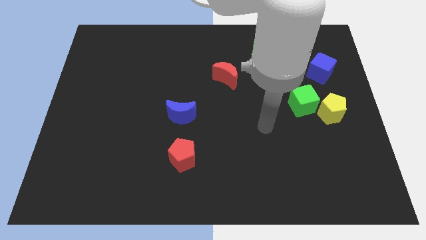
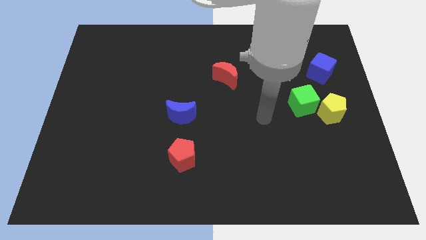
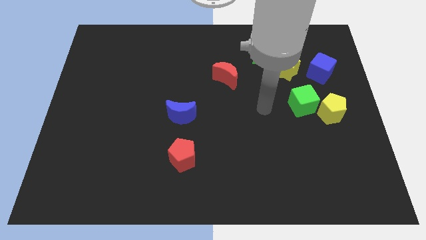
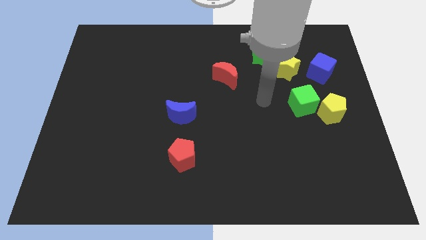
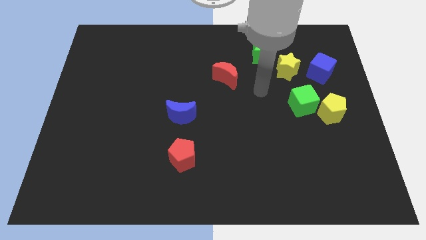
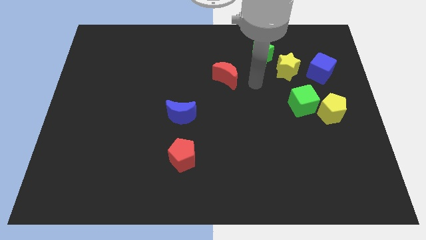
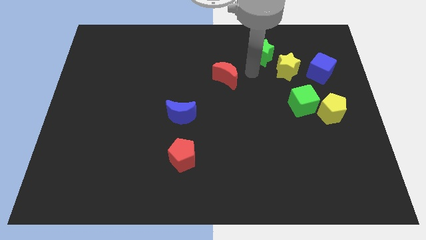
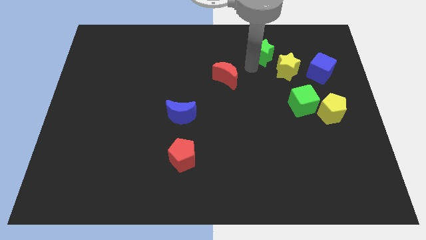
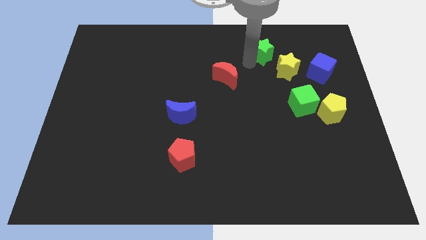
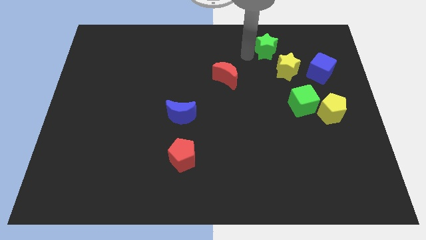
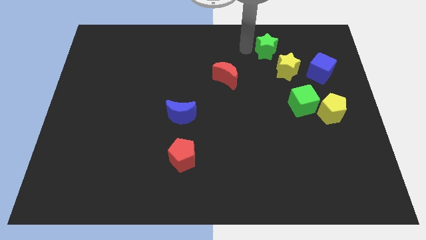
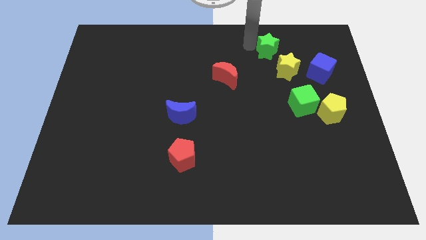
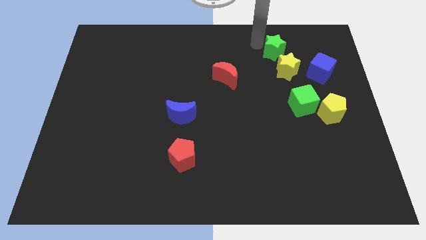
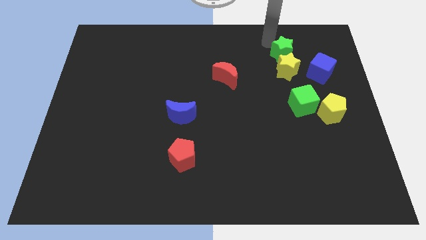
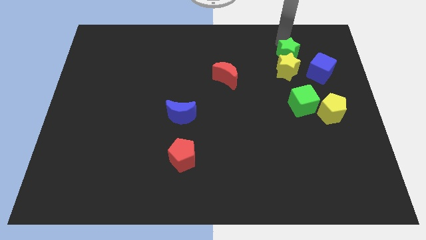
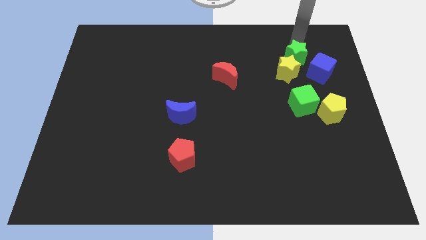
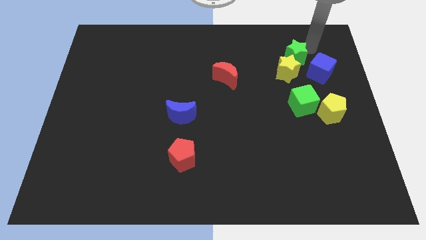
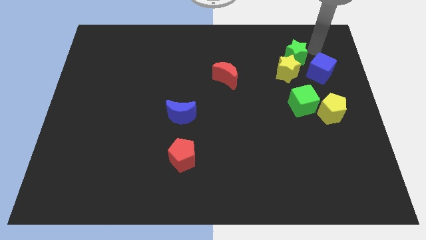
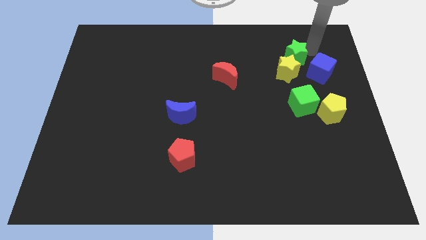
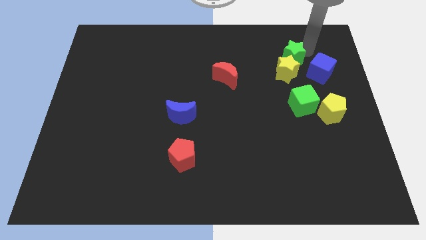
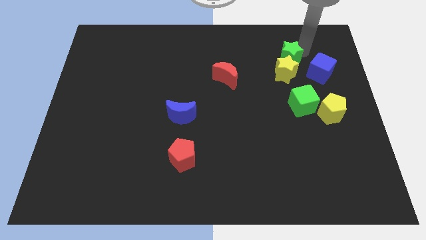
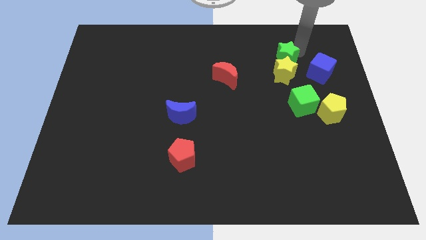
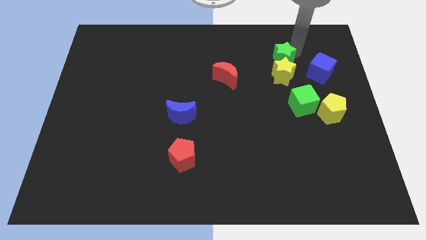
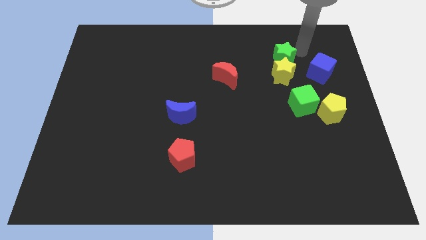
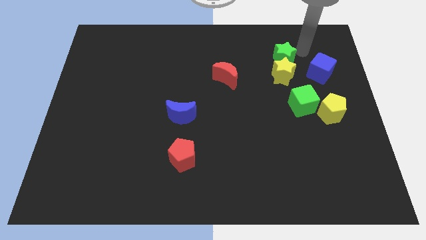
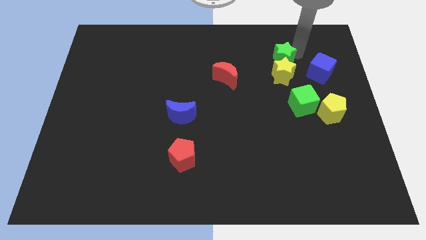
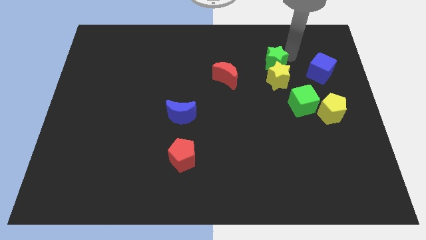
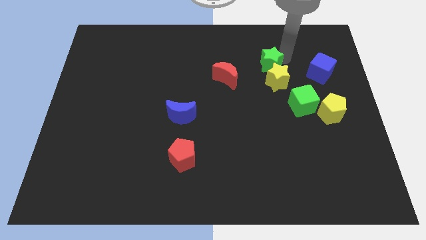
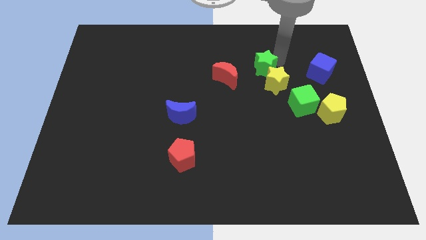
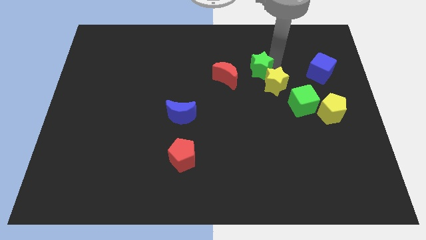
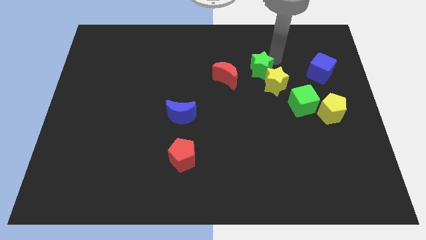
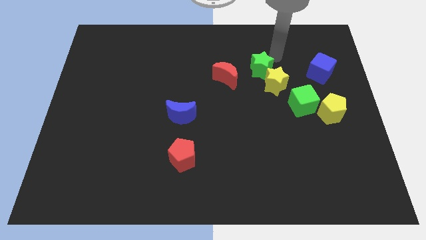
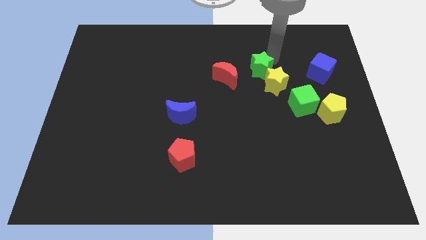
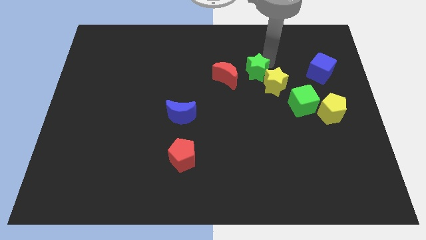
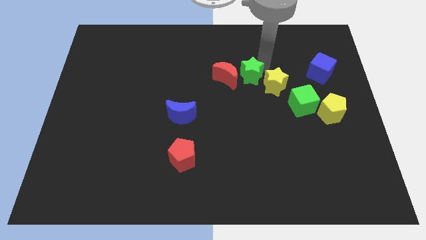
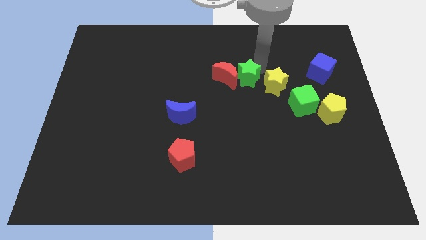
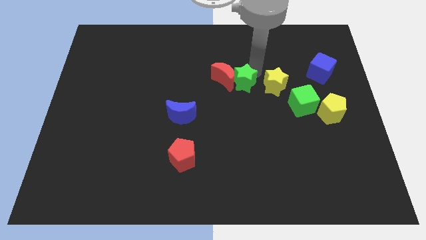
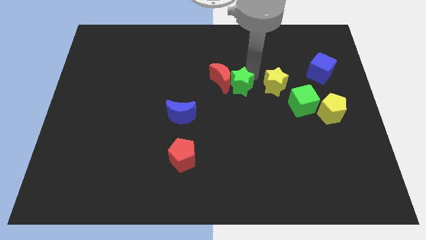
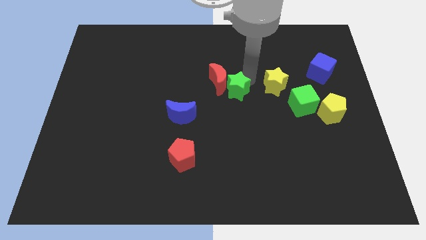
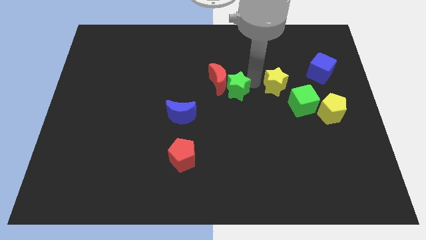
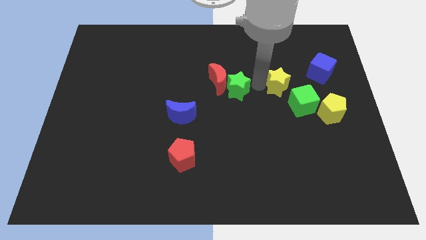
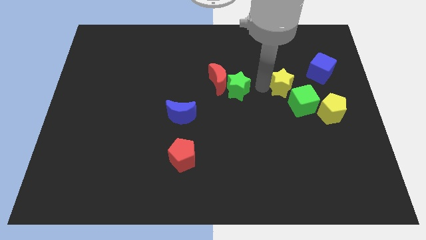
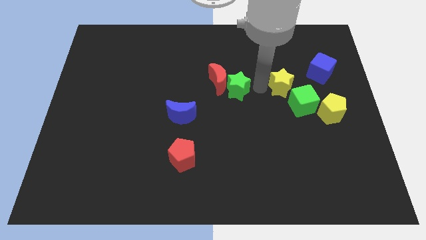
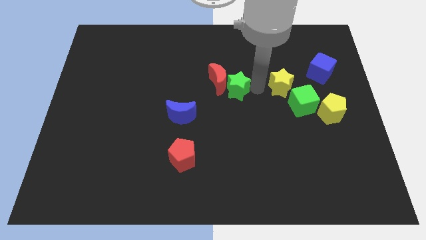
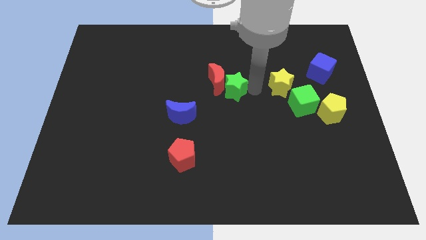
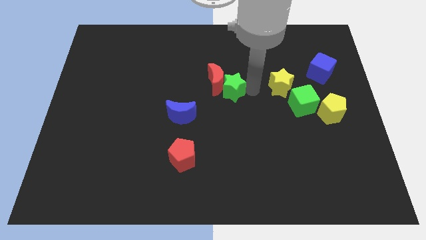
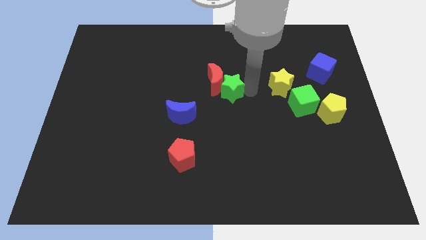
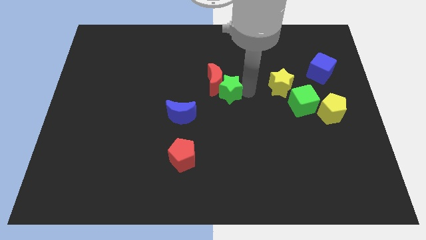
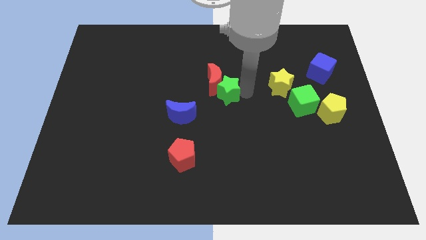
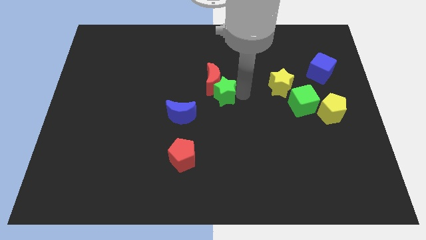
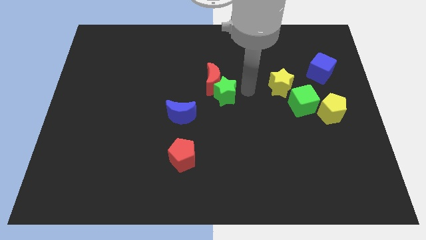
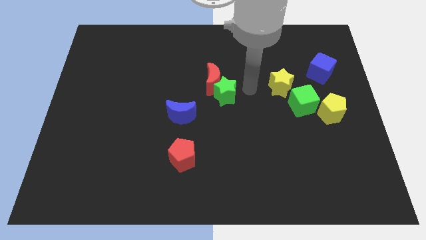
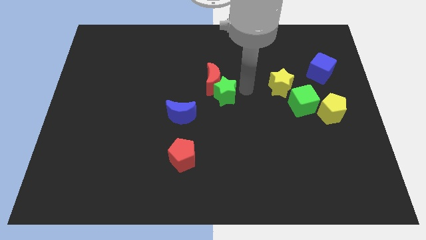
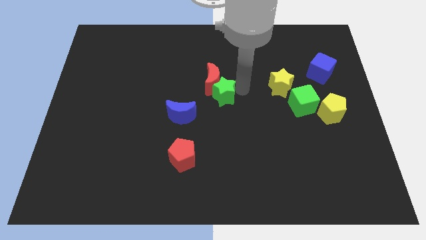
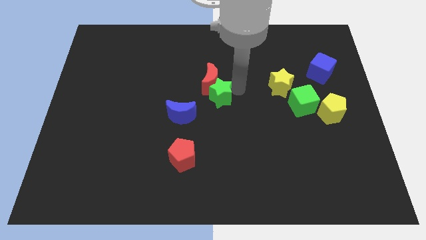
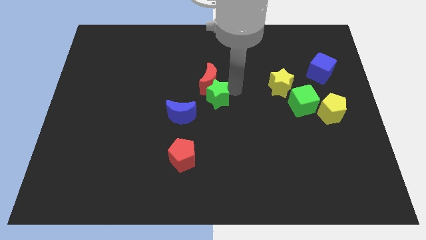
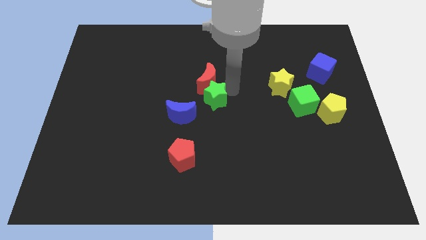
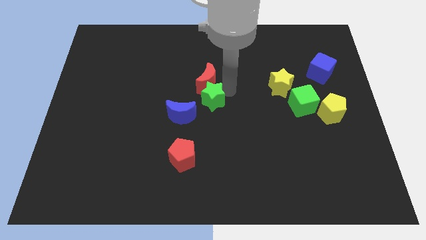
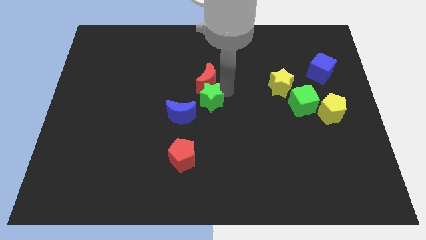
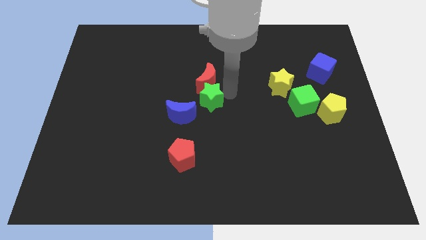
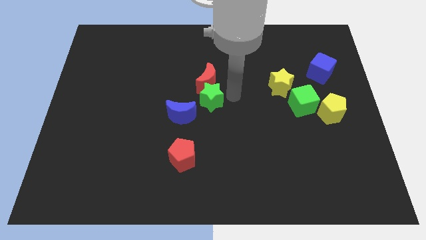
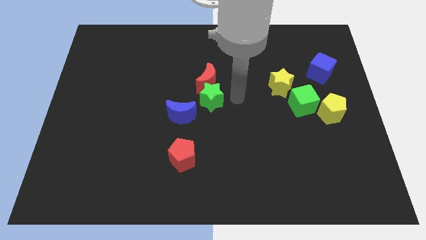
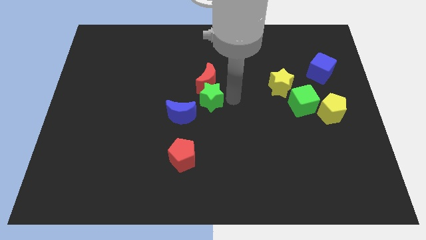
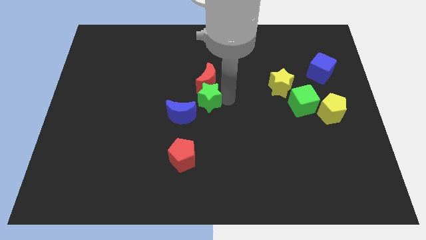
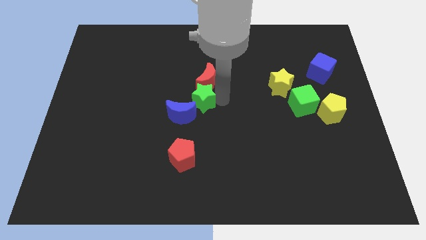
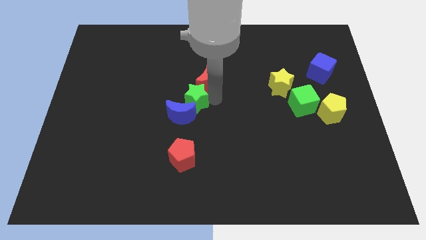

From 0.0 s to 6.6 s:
move the green star above the red pentagon
